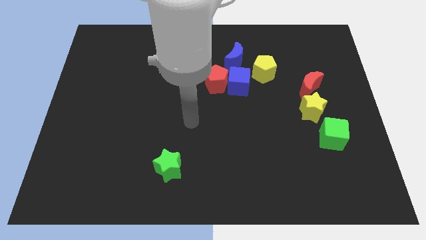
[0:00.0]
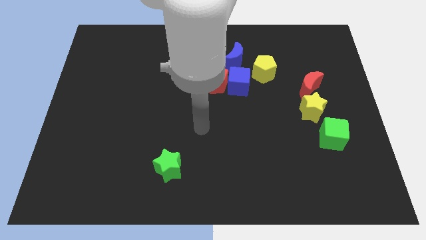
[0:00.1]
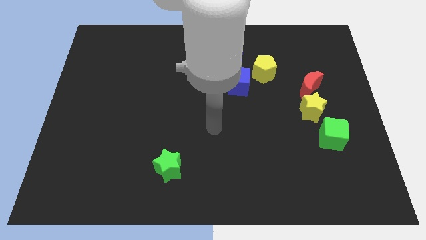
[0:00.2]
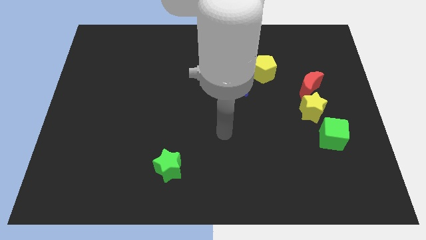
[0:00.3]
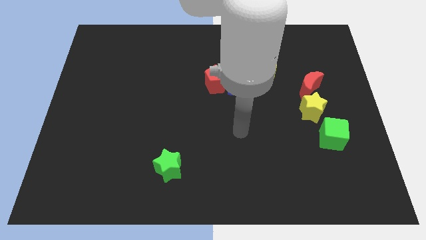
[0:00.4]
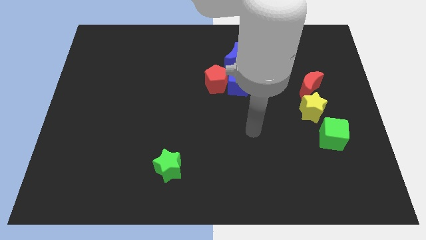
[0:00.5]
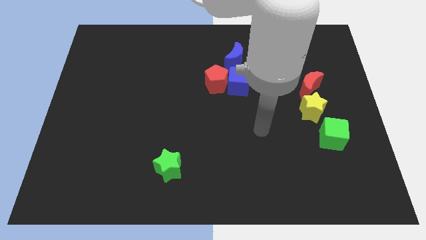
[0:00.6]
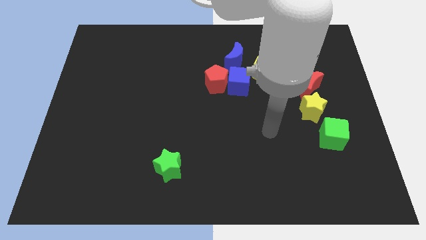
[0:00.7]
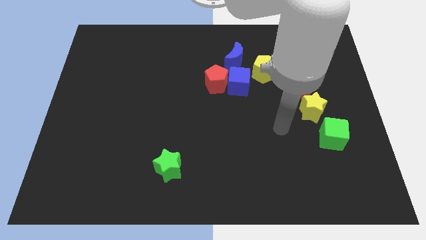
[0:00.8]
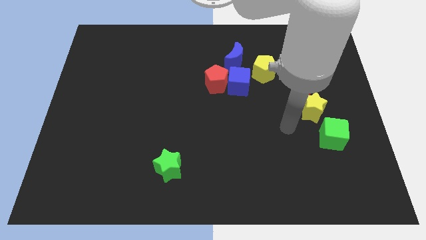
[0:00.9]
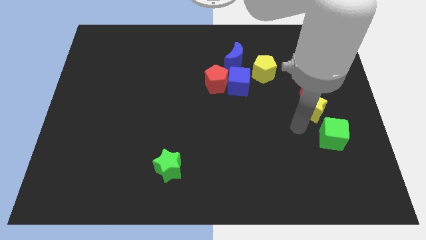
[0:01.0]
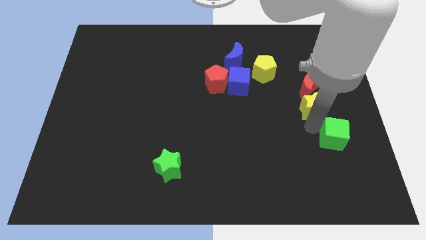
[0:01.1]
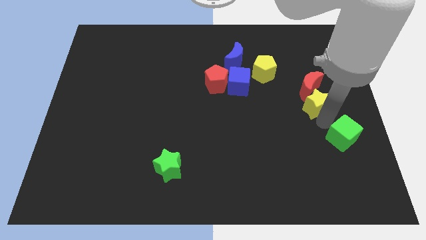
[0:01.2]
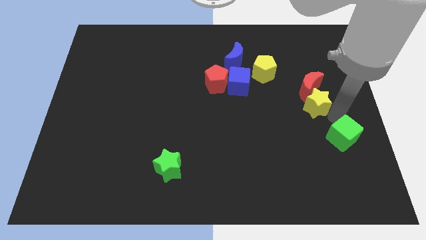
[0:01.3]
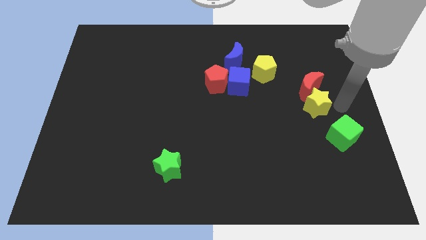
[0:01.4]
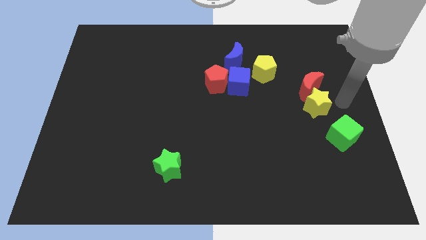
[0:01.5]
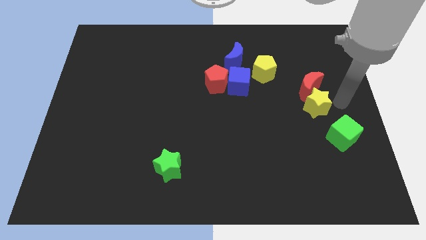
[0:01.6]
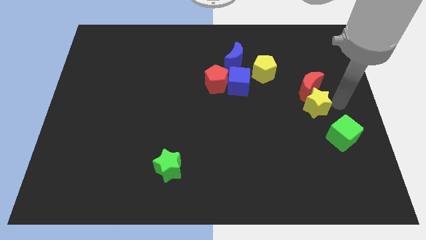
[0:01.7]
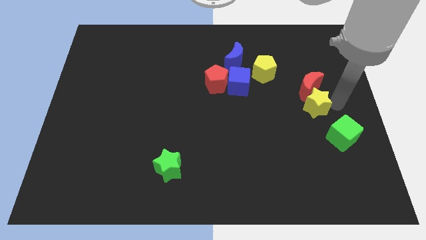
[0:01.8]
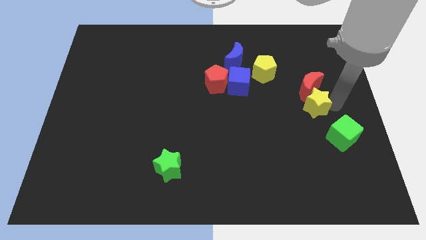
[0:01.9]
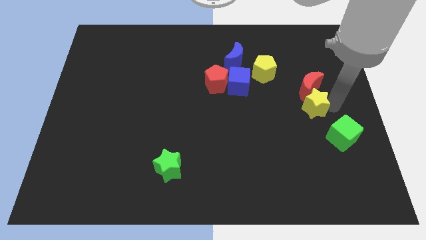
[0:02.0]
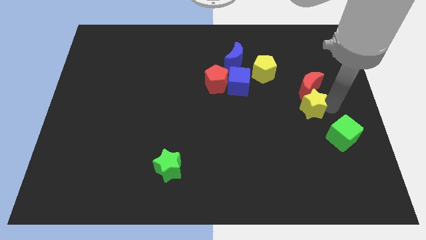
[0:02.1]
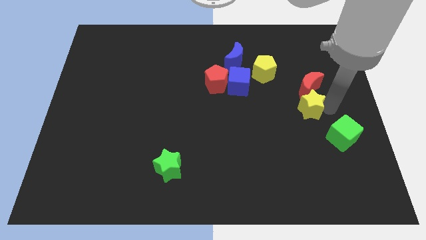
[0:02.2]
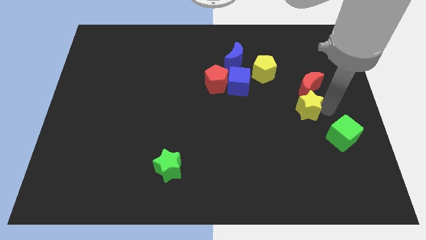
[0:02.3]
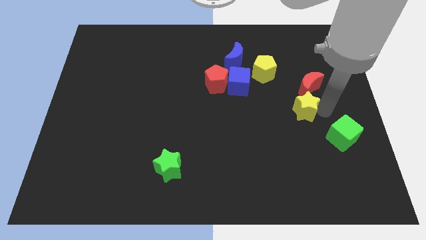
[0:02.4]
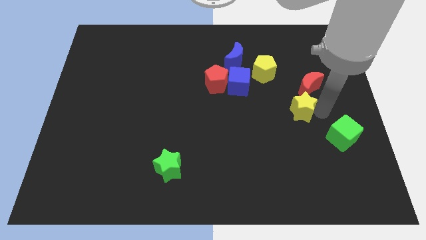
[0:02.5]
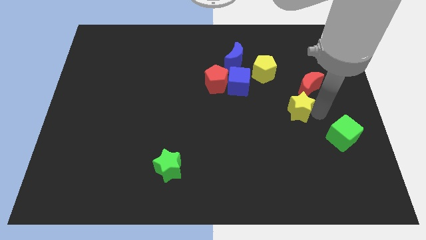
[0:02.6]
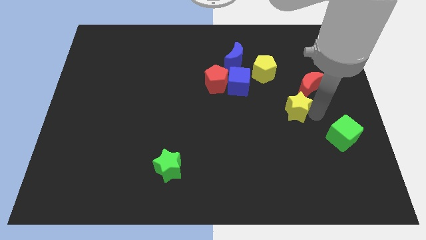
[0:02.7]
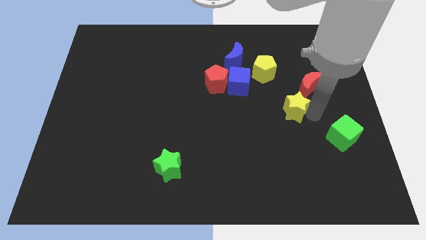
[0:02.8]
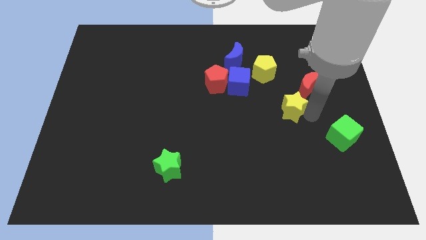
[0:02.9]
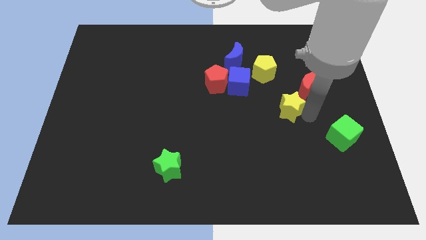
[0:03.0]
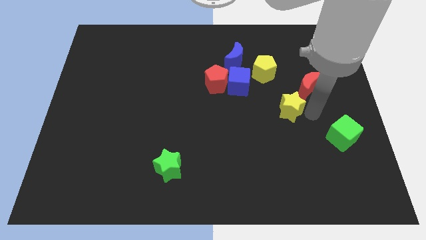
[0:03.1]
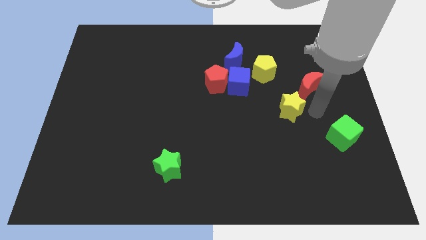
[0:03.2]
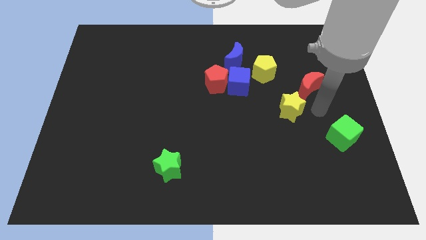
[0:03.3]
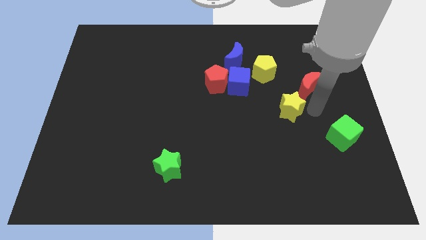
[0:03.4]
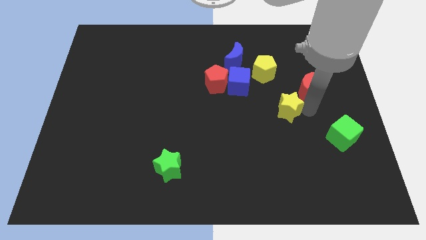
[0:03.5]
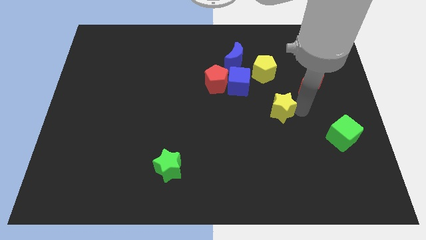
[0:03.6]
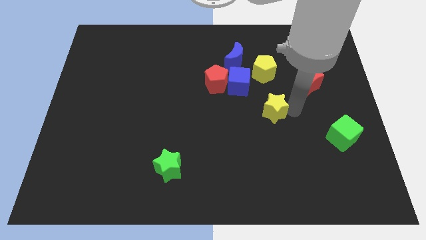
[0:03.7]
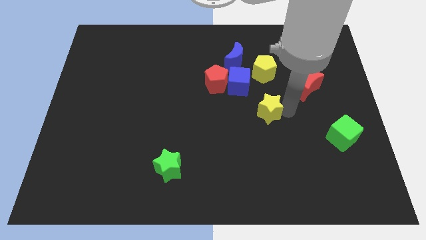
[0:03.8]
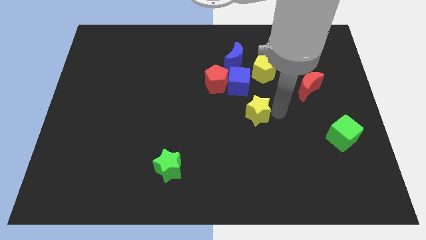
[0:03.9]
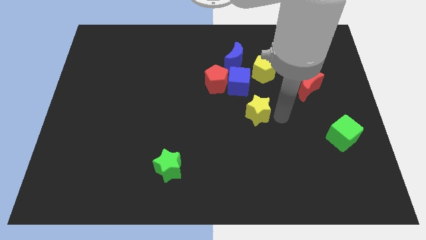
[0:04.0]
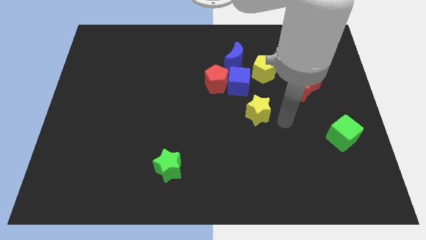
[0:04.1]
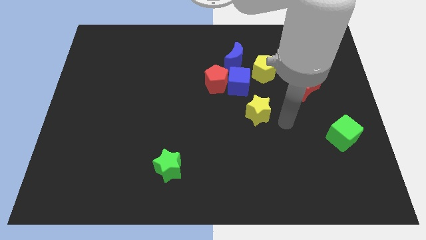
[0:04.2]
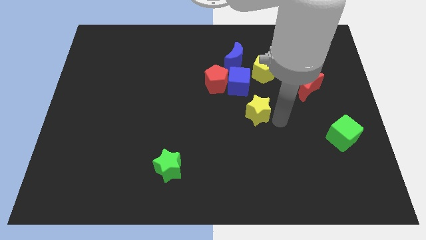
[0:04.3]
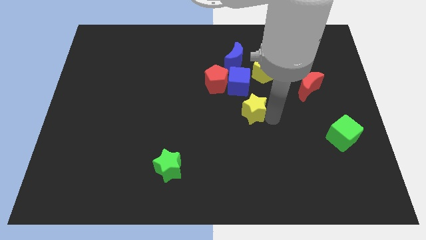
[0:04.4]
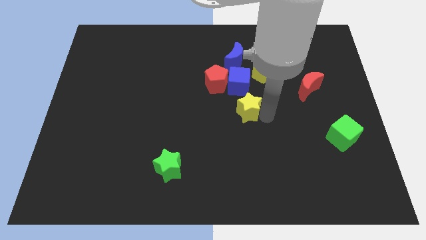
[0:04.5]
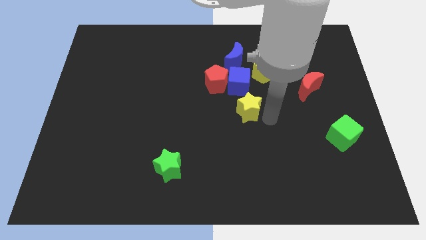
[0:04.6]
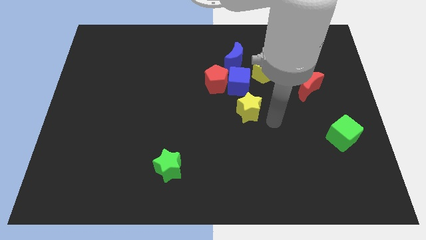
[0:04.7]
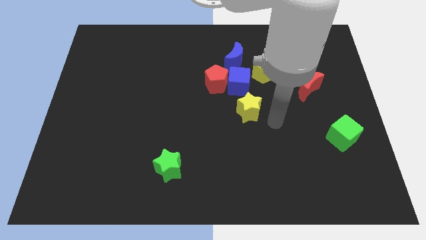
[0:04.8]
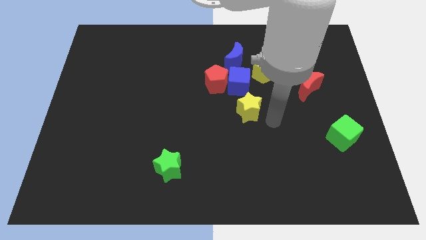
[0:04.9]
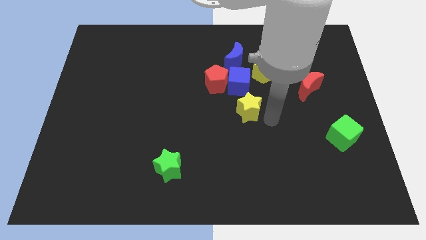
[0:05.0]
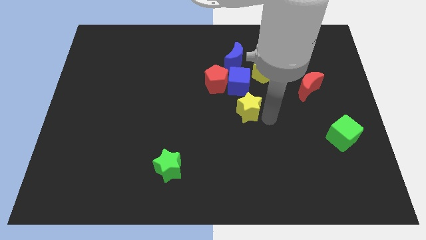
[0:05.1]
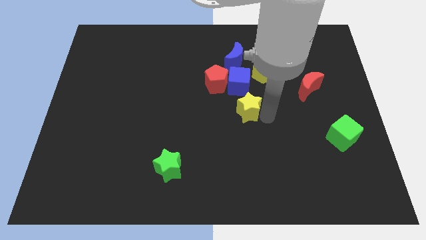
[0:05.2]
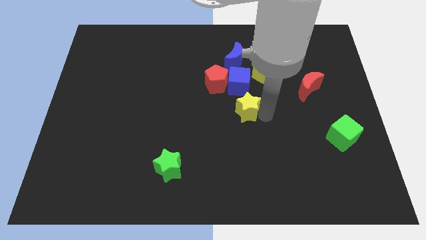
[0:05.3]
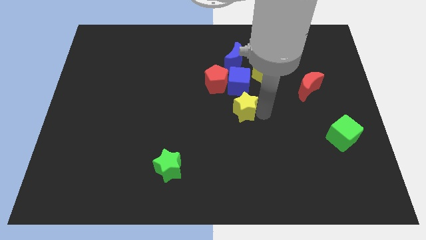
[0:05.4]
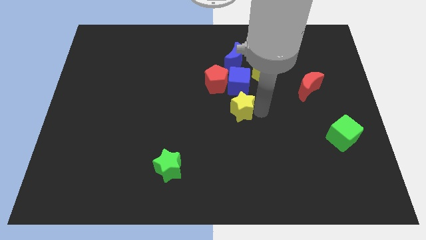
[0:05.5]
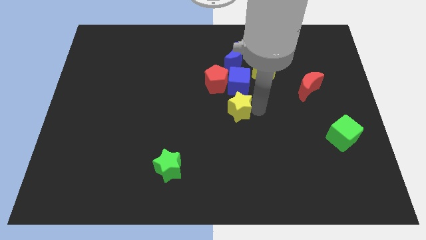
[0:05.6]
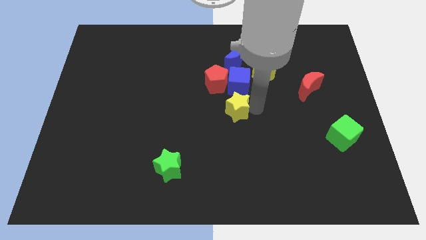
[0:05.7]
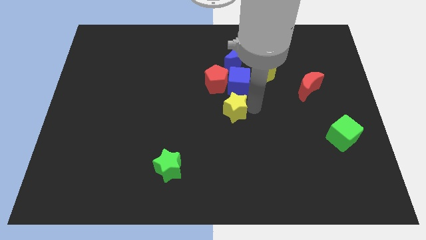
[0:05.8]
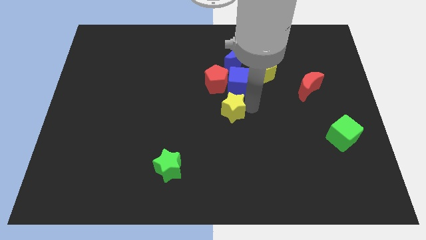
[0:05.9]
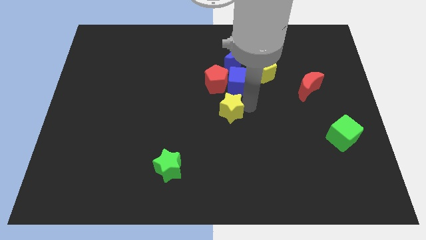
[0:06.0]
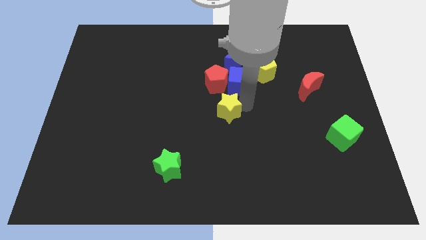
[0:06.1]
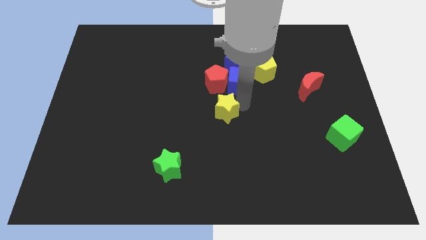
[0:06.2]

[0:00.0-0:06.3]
move the yellow star to the left

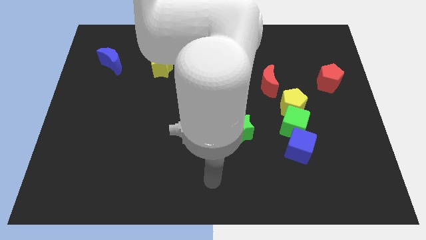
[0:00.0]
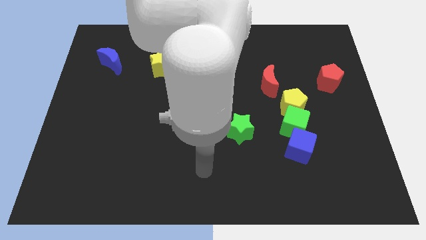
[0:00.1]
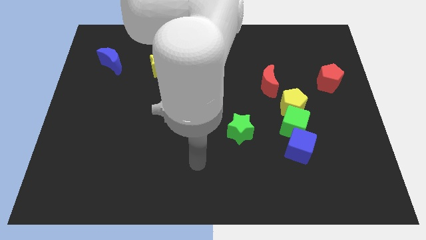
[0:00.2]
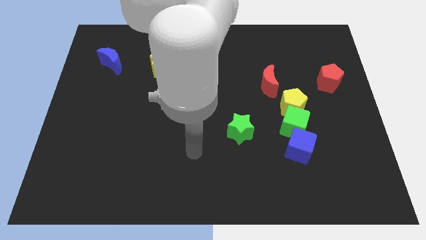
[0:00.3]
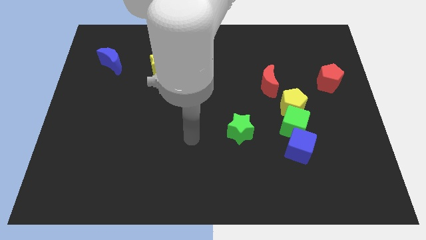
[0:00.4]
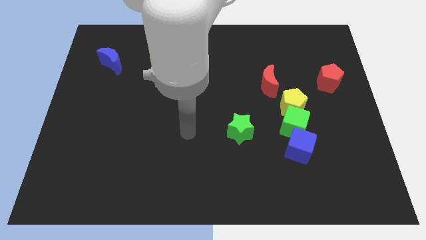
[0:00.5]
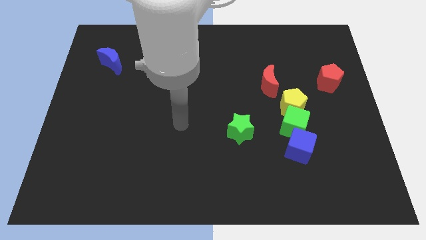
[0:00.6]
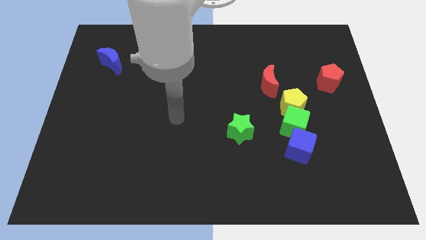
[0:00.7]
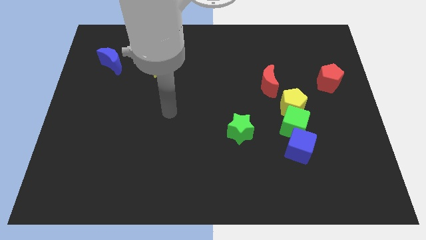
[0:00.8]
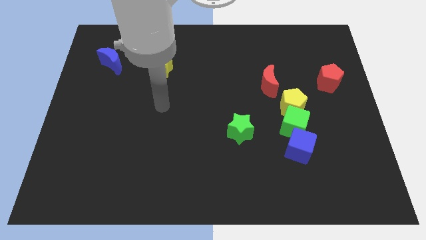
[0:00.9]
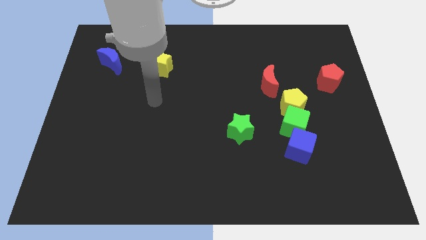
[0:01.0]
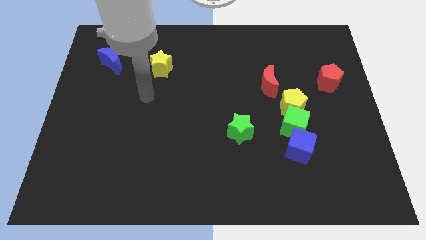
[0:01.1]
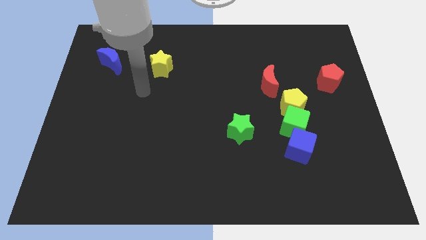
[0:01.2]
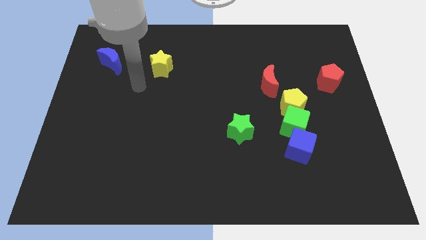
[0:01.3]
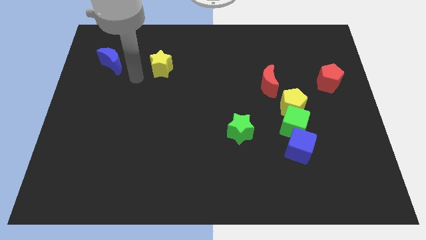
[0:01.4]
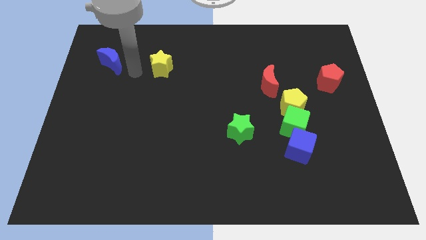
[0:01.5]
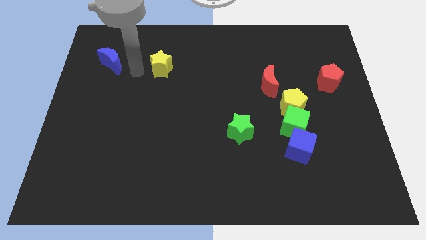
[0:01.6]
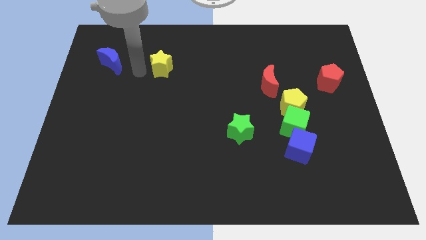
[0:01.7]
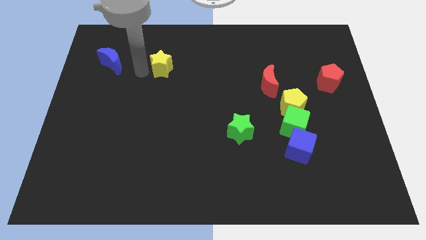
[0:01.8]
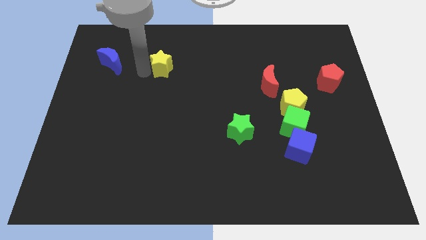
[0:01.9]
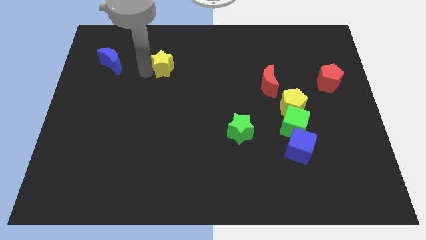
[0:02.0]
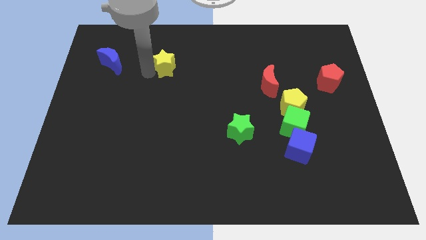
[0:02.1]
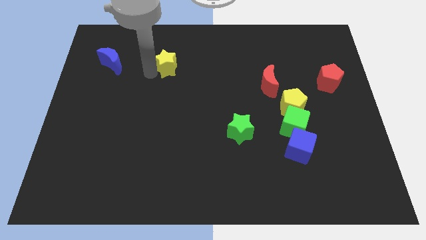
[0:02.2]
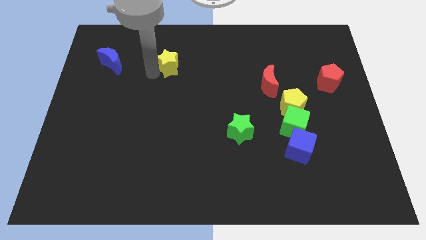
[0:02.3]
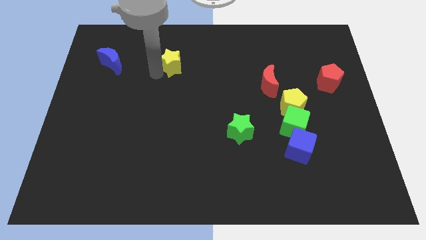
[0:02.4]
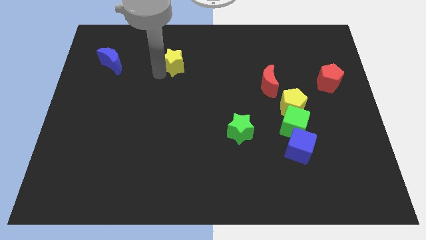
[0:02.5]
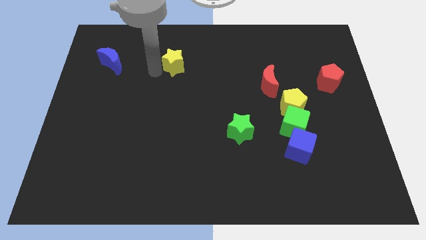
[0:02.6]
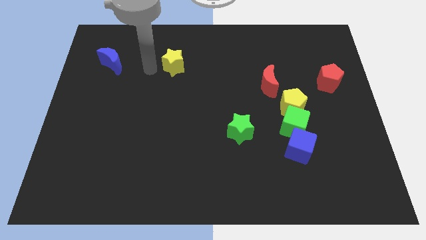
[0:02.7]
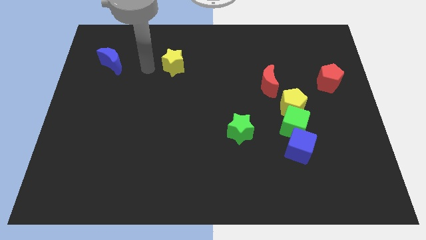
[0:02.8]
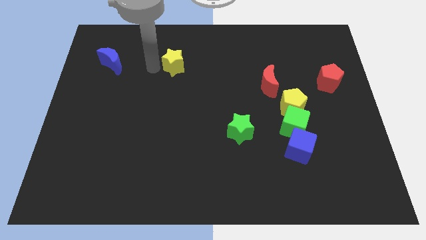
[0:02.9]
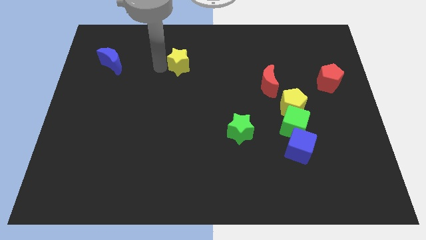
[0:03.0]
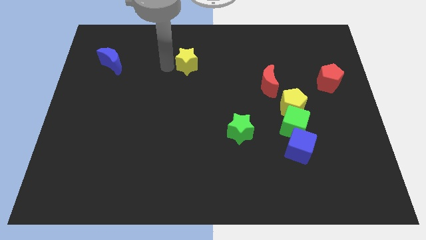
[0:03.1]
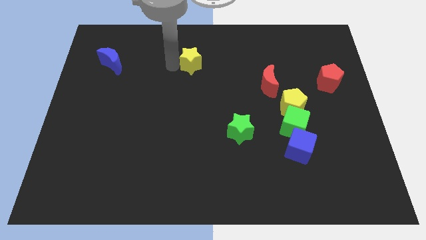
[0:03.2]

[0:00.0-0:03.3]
slightly slide the yellow star right
